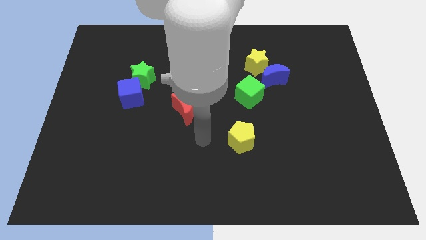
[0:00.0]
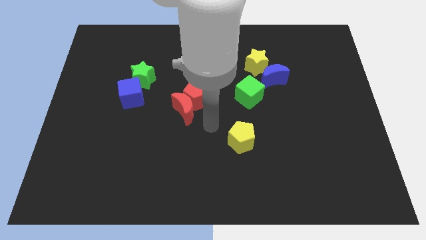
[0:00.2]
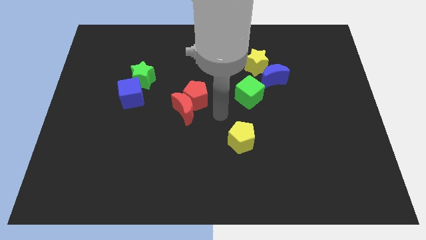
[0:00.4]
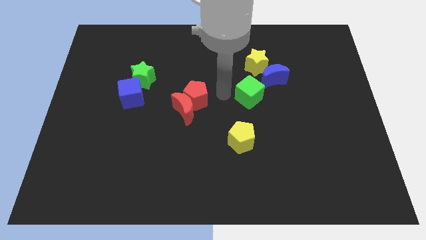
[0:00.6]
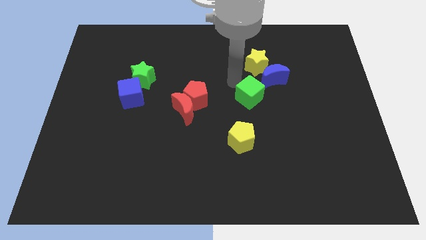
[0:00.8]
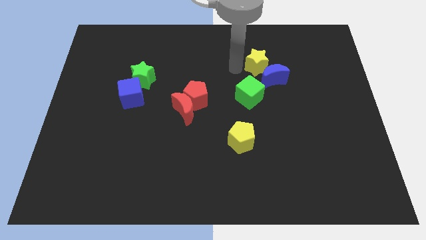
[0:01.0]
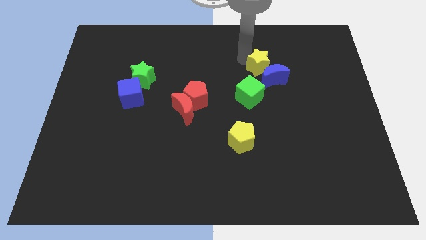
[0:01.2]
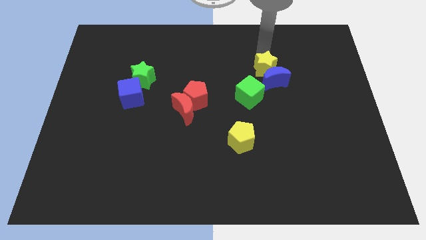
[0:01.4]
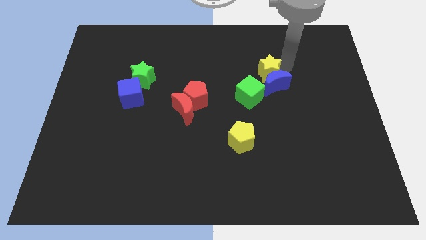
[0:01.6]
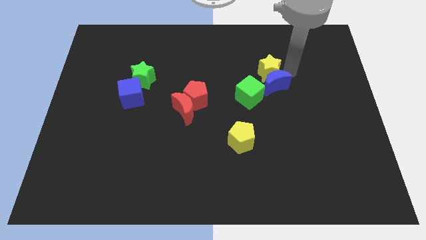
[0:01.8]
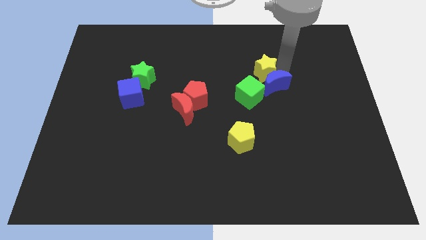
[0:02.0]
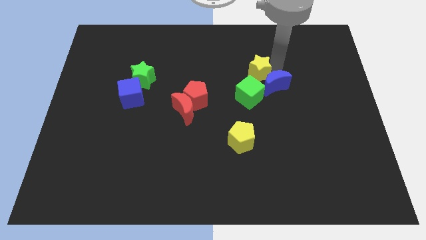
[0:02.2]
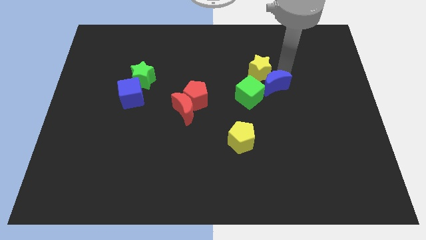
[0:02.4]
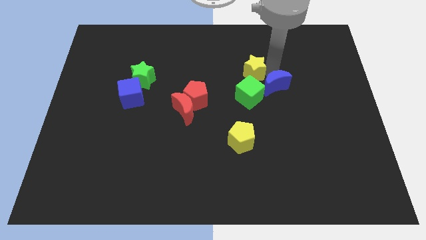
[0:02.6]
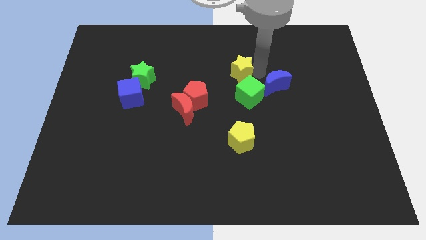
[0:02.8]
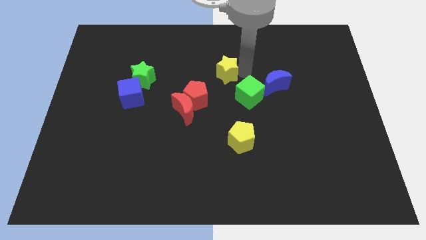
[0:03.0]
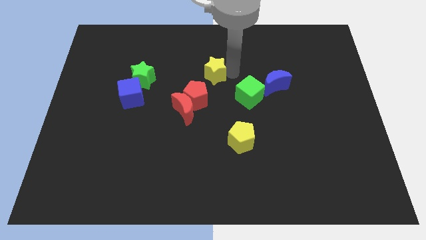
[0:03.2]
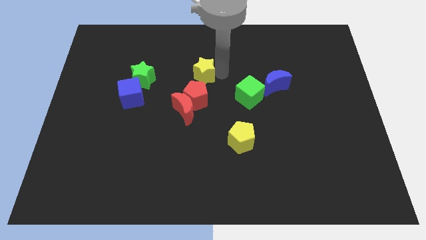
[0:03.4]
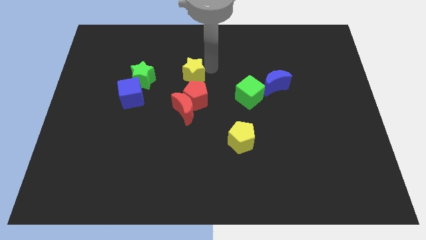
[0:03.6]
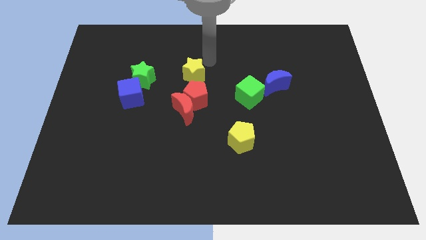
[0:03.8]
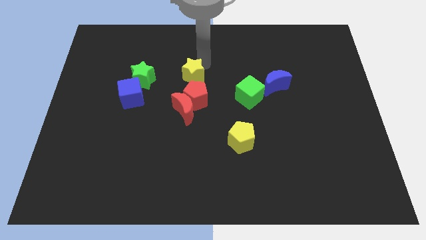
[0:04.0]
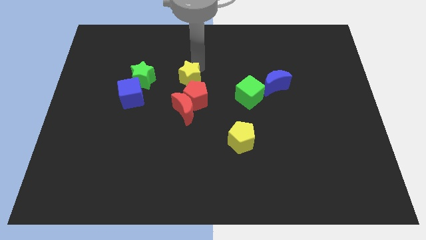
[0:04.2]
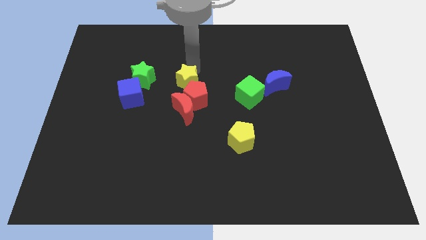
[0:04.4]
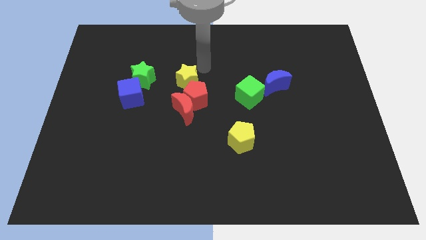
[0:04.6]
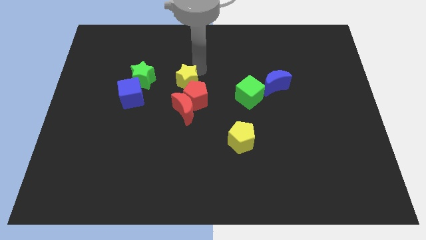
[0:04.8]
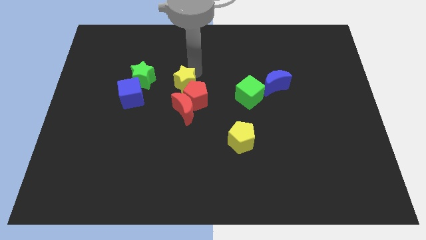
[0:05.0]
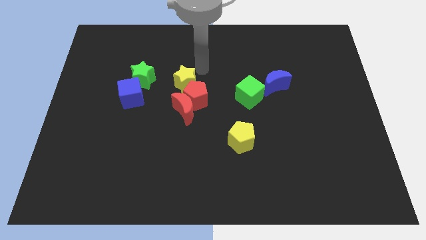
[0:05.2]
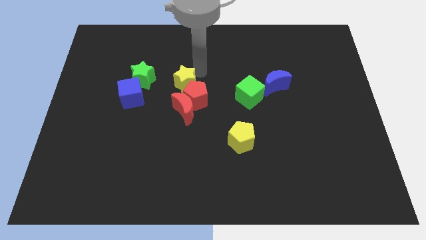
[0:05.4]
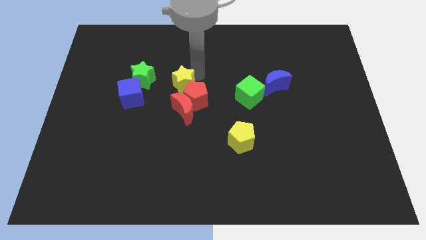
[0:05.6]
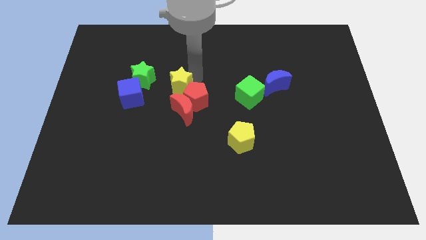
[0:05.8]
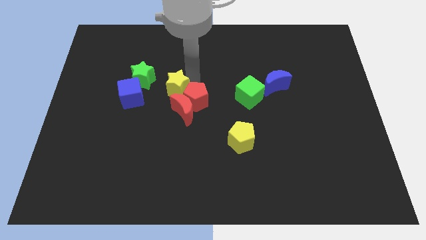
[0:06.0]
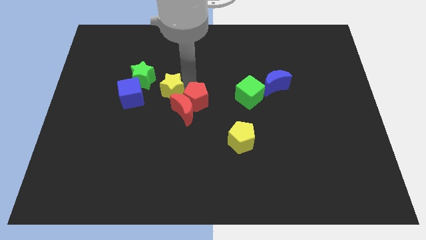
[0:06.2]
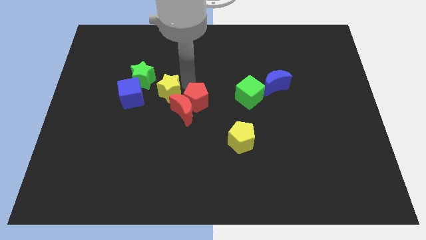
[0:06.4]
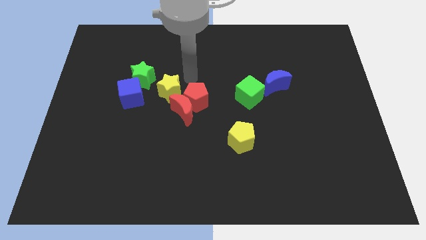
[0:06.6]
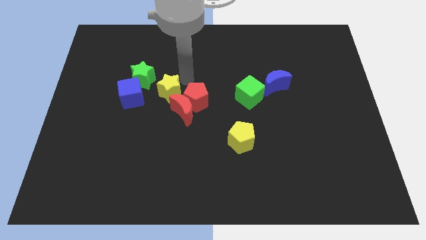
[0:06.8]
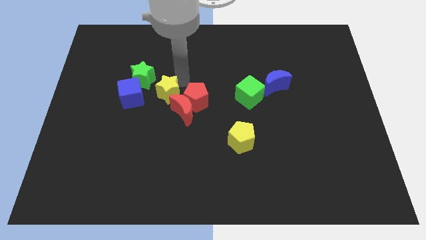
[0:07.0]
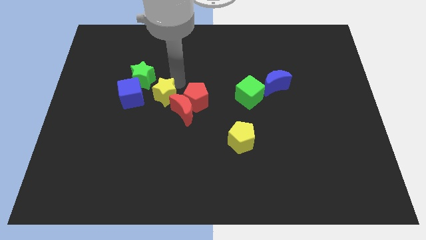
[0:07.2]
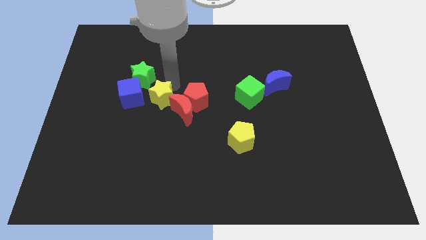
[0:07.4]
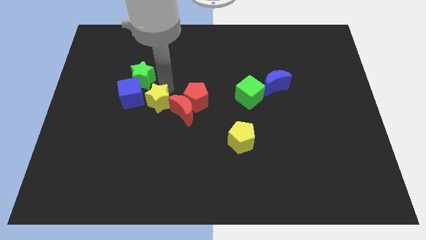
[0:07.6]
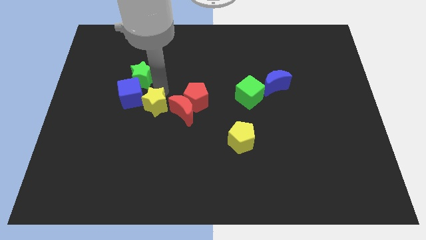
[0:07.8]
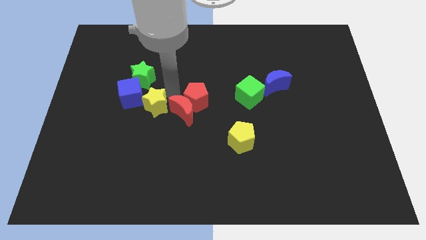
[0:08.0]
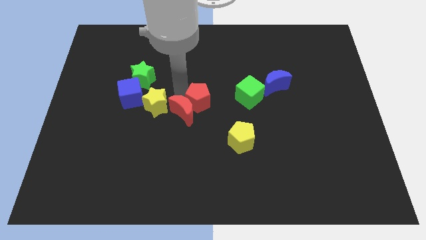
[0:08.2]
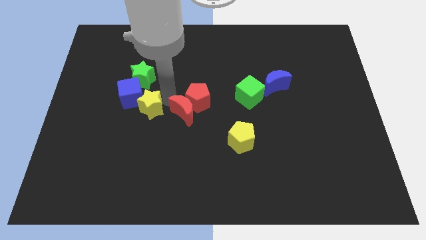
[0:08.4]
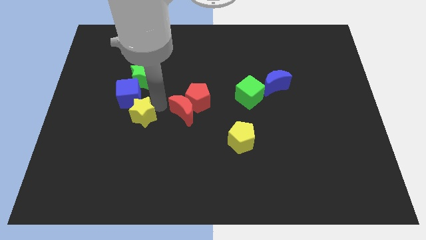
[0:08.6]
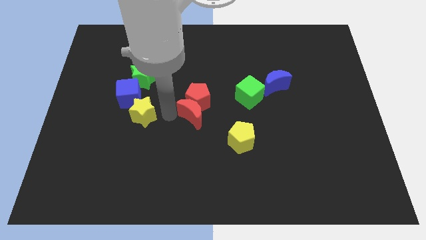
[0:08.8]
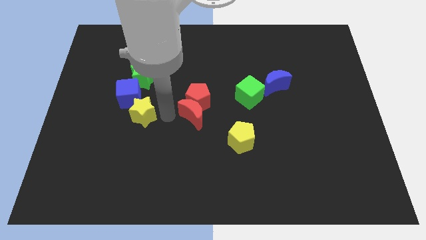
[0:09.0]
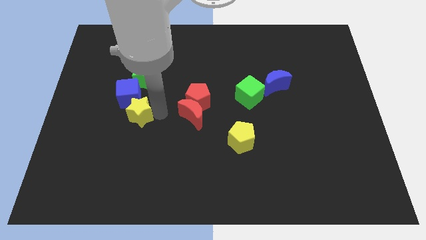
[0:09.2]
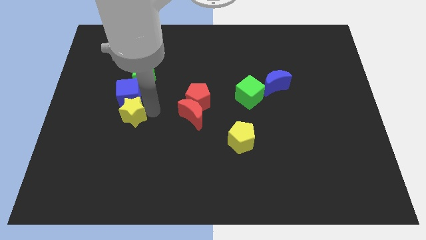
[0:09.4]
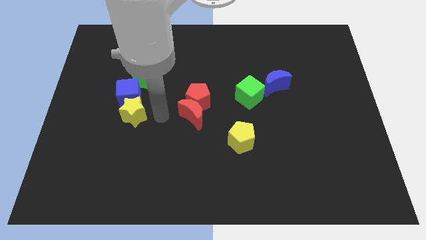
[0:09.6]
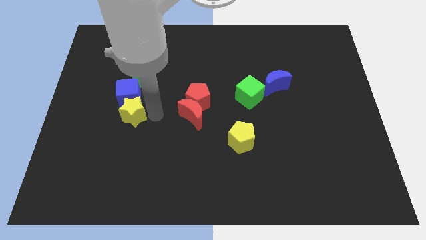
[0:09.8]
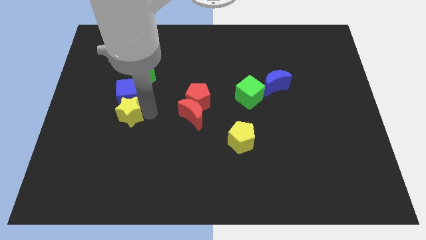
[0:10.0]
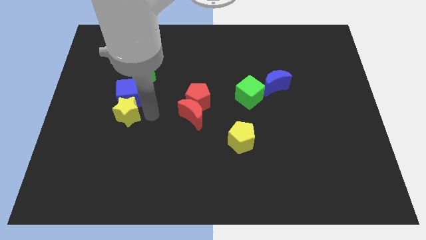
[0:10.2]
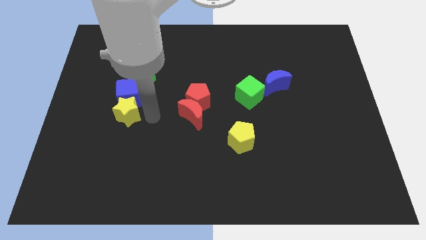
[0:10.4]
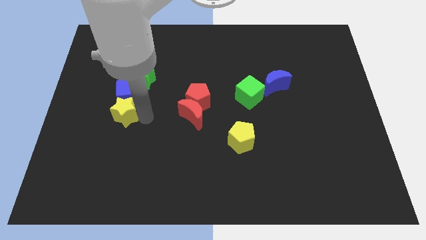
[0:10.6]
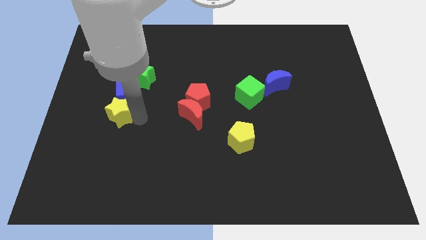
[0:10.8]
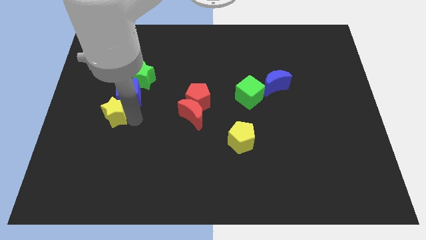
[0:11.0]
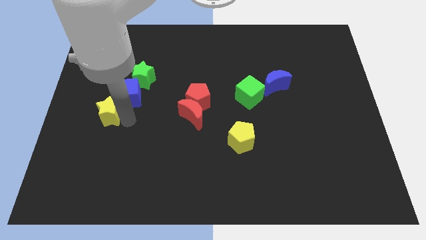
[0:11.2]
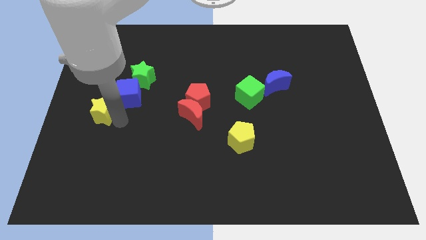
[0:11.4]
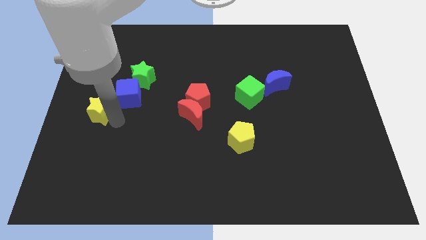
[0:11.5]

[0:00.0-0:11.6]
move the yellow star to the left side
